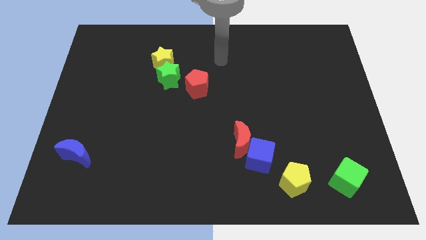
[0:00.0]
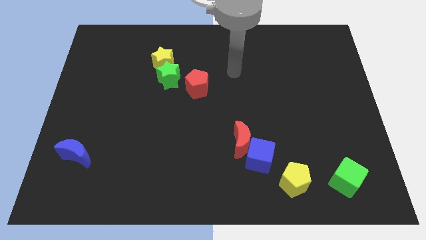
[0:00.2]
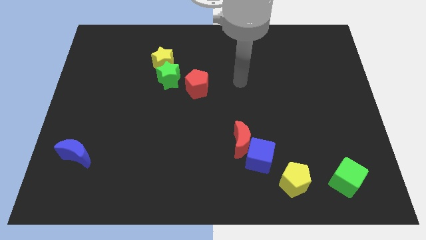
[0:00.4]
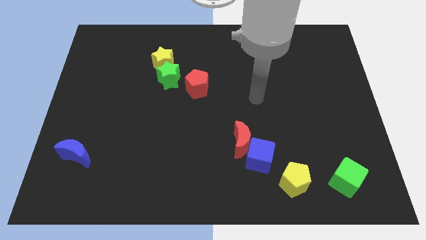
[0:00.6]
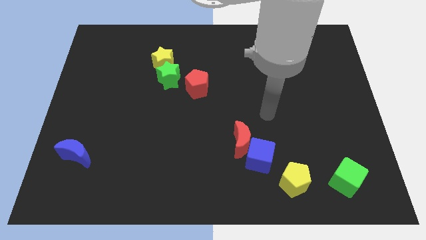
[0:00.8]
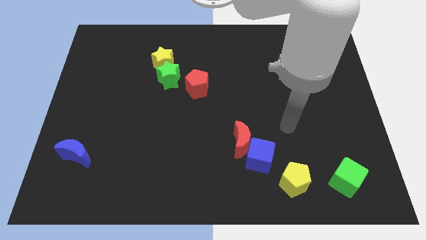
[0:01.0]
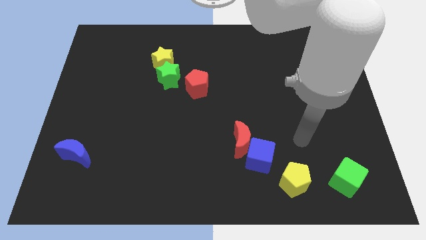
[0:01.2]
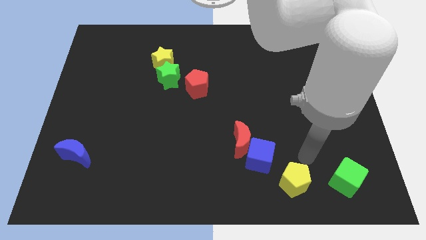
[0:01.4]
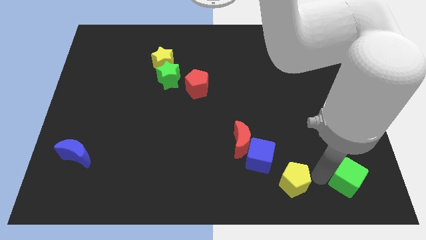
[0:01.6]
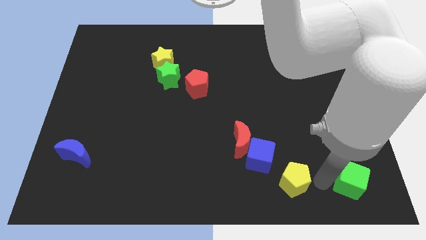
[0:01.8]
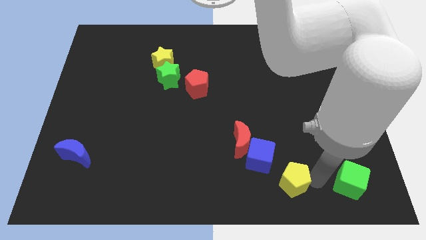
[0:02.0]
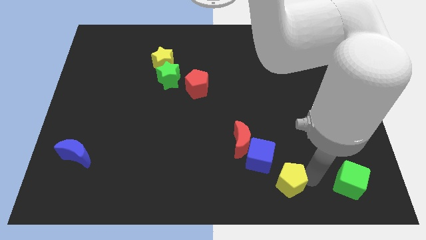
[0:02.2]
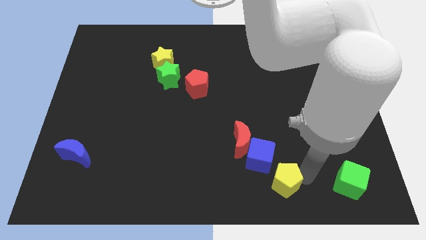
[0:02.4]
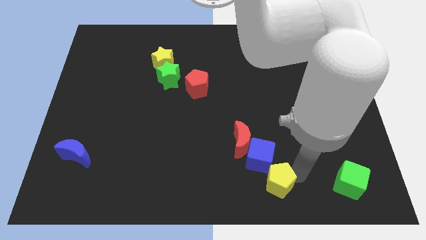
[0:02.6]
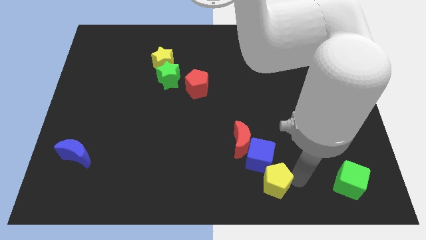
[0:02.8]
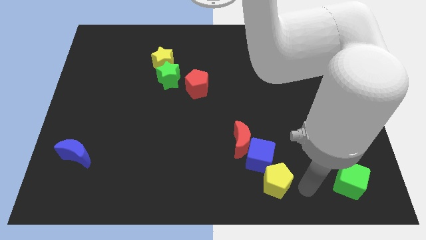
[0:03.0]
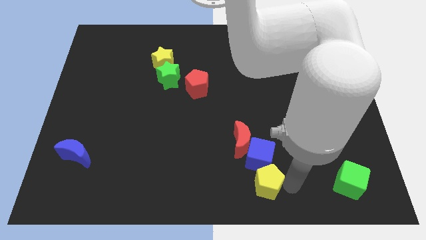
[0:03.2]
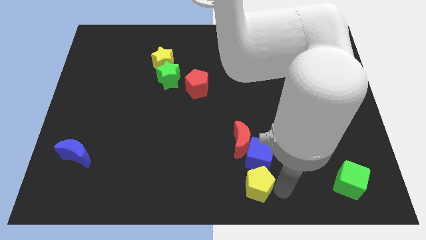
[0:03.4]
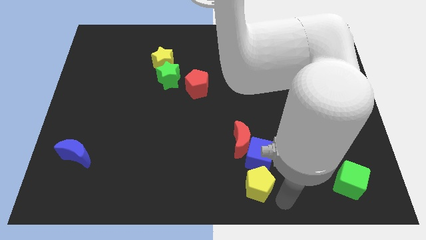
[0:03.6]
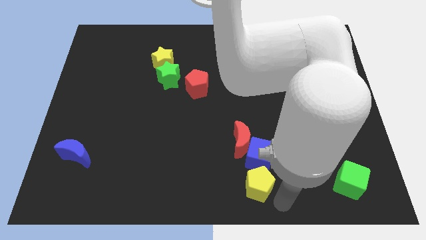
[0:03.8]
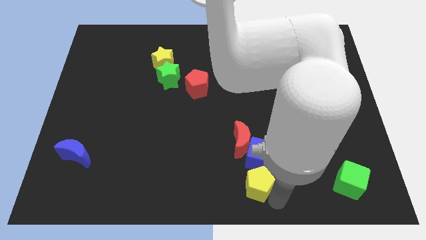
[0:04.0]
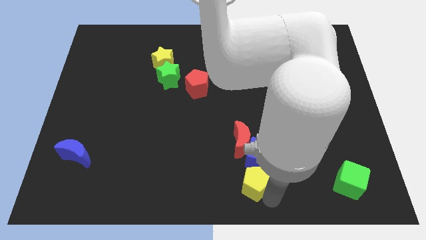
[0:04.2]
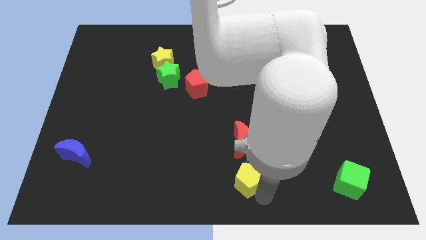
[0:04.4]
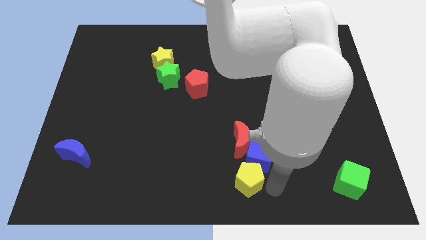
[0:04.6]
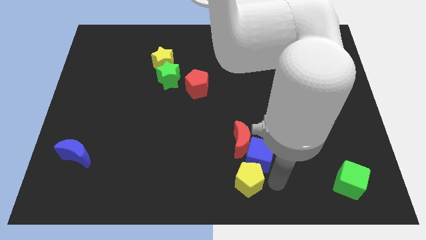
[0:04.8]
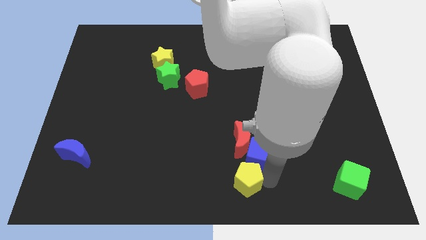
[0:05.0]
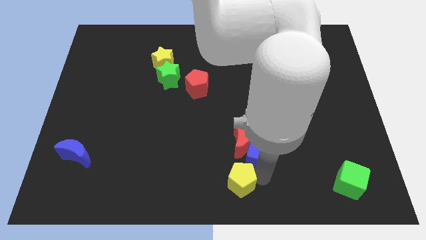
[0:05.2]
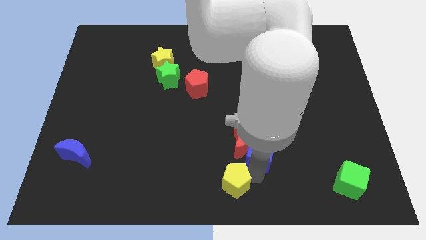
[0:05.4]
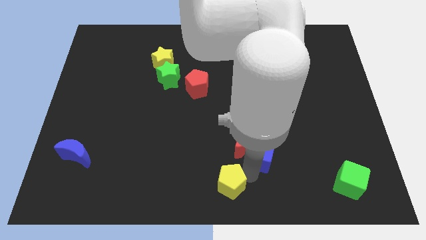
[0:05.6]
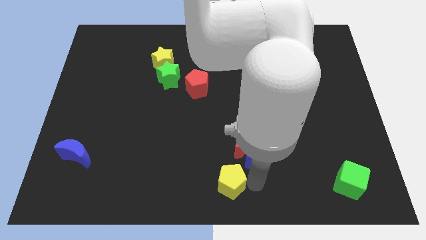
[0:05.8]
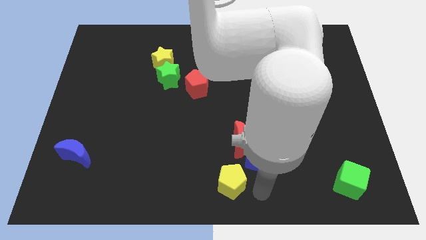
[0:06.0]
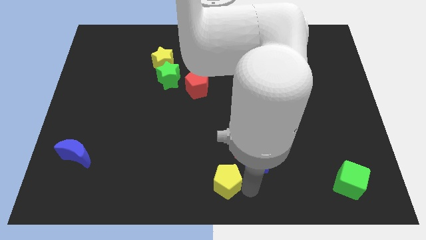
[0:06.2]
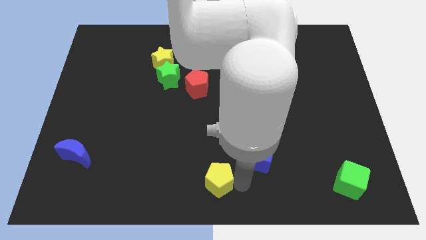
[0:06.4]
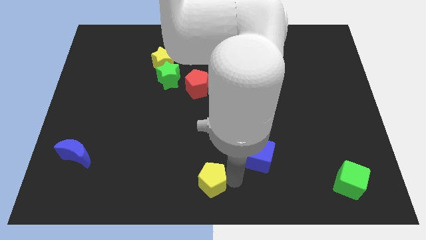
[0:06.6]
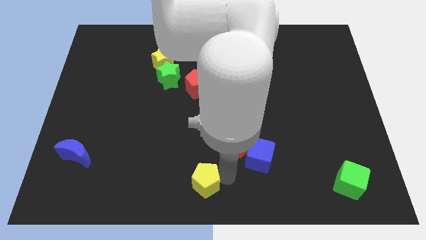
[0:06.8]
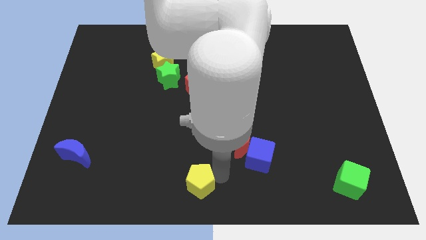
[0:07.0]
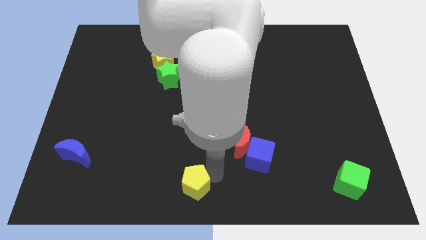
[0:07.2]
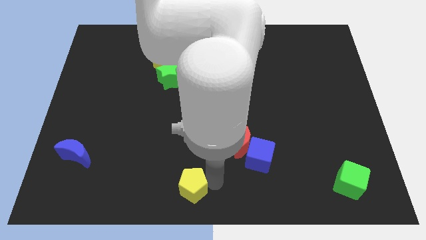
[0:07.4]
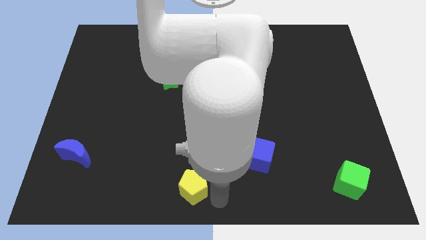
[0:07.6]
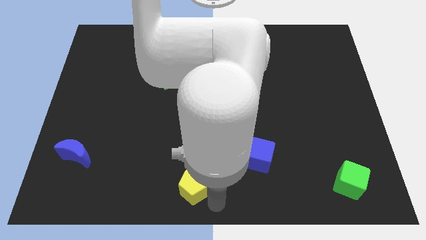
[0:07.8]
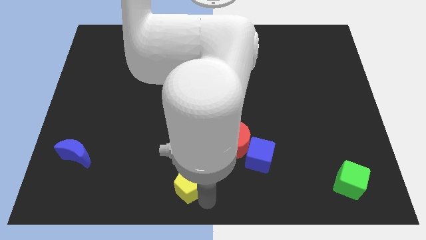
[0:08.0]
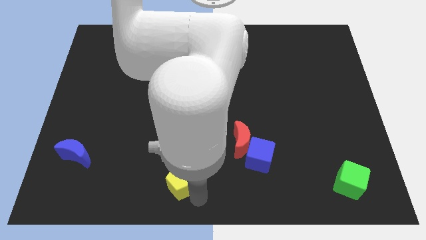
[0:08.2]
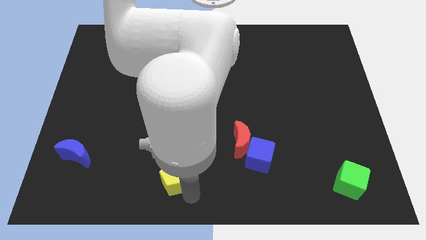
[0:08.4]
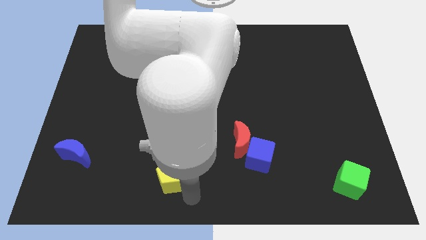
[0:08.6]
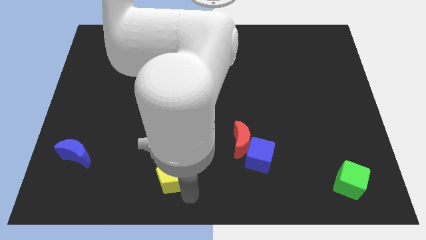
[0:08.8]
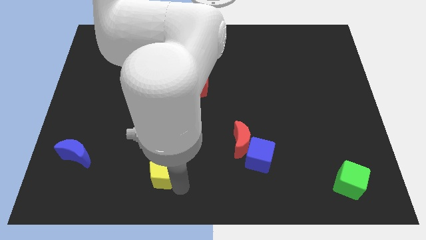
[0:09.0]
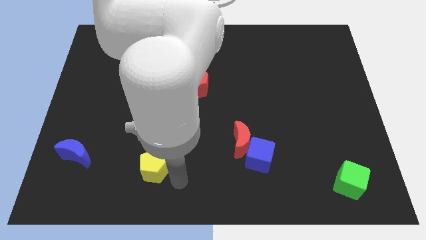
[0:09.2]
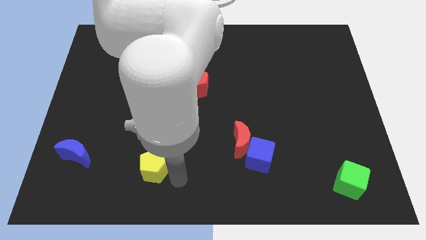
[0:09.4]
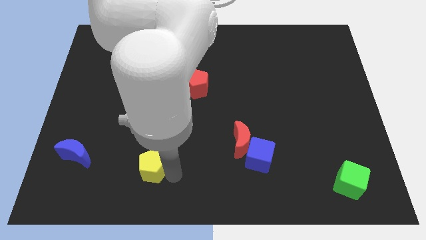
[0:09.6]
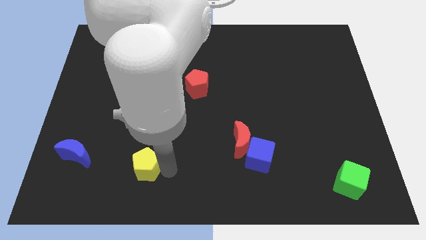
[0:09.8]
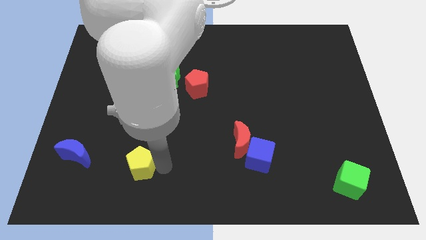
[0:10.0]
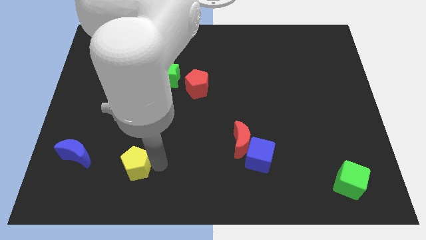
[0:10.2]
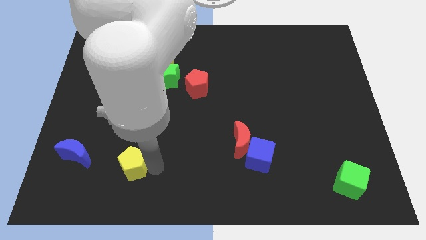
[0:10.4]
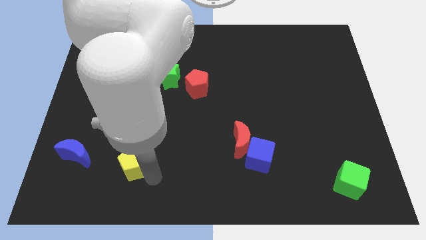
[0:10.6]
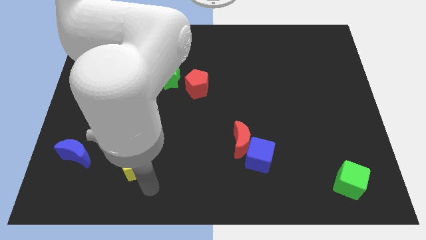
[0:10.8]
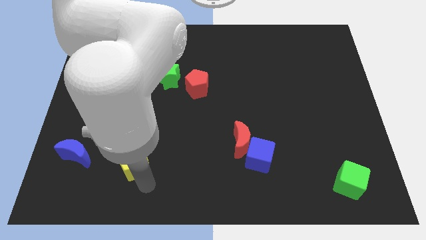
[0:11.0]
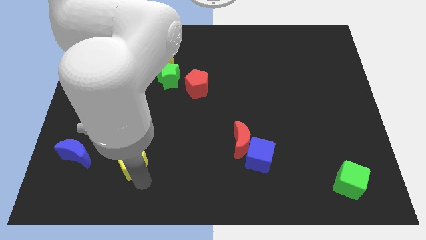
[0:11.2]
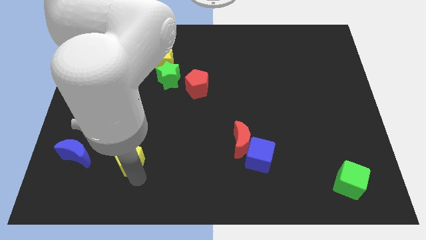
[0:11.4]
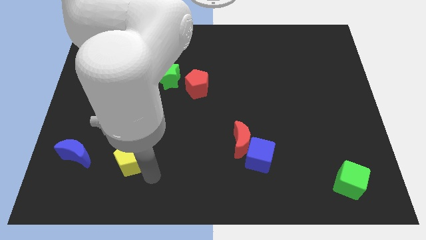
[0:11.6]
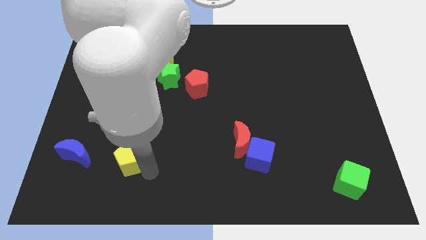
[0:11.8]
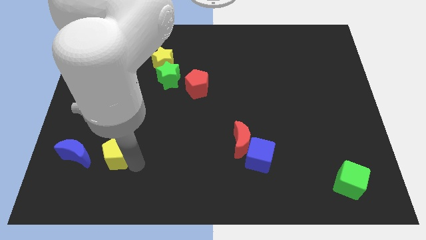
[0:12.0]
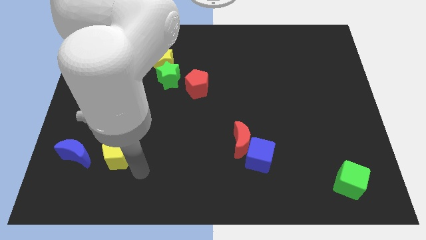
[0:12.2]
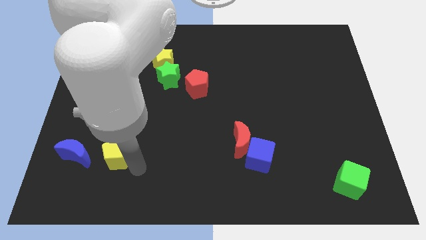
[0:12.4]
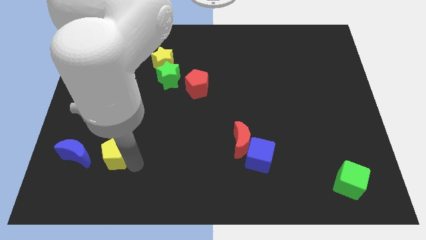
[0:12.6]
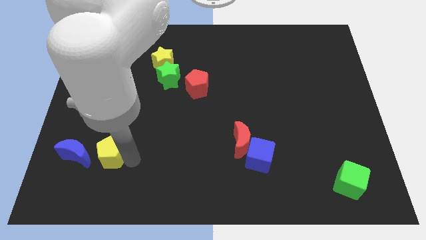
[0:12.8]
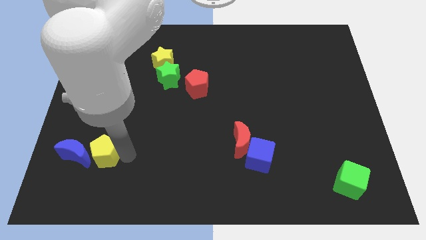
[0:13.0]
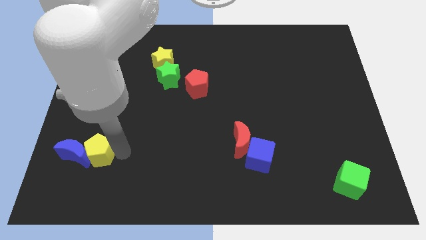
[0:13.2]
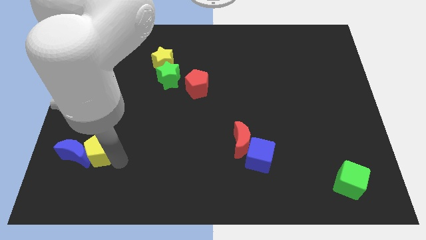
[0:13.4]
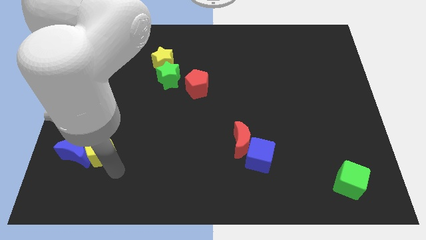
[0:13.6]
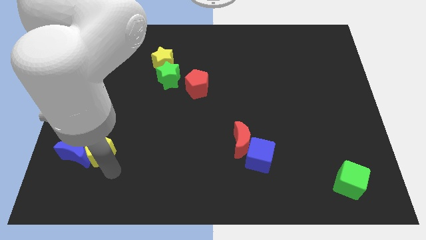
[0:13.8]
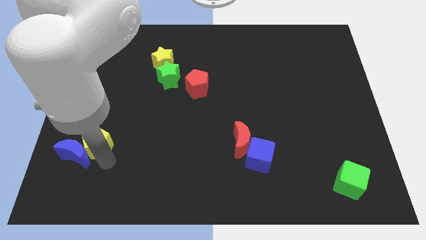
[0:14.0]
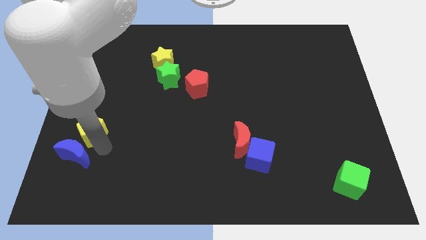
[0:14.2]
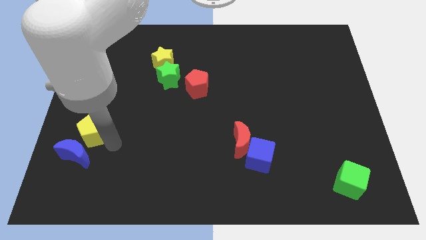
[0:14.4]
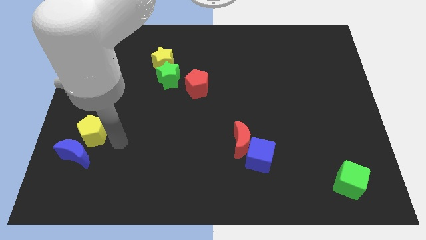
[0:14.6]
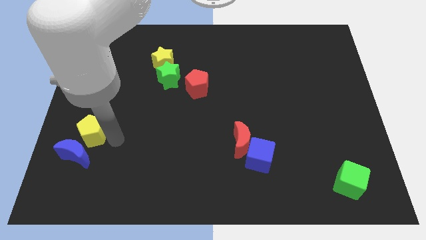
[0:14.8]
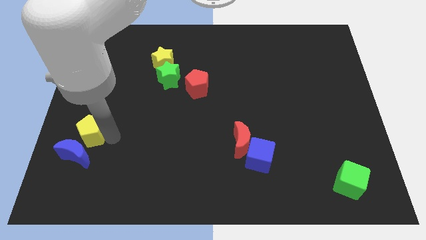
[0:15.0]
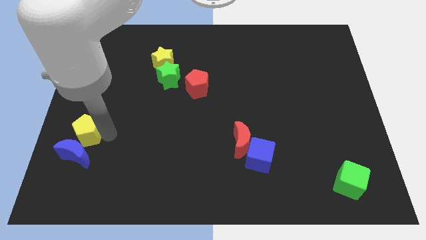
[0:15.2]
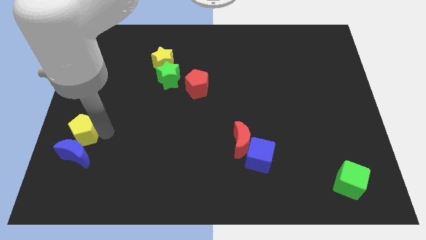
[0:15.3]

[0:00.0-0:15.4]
push the yellow pentagon to the left side
